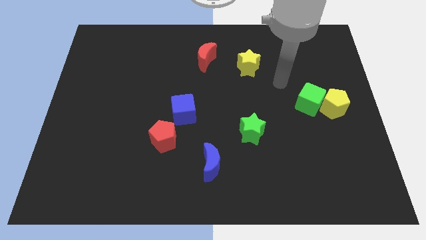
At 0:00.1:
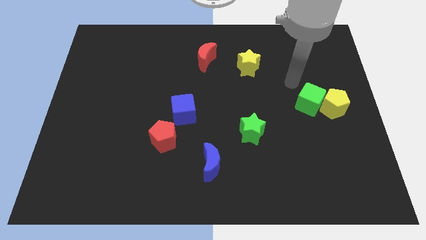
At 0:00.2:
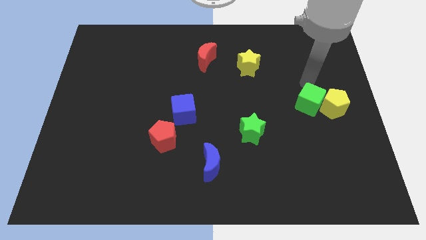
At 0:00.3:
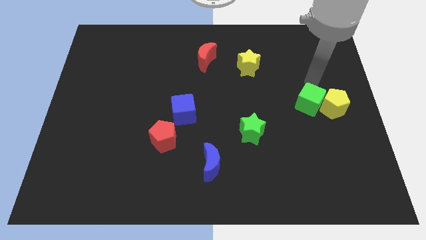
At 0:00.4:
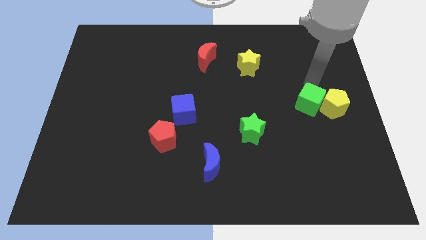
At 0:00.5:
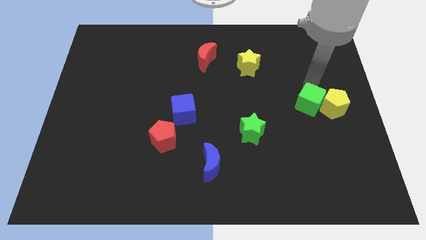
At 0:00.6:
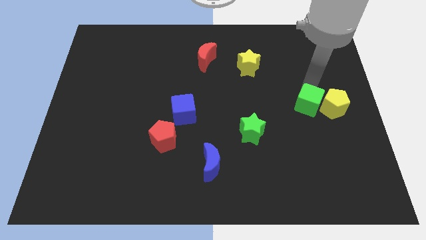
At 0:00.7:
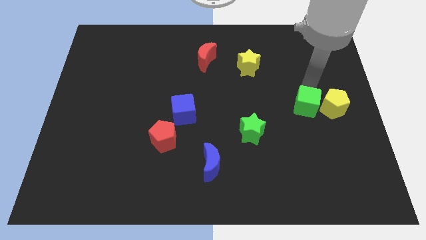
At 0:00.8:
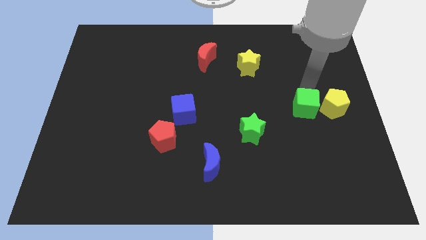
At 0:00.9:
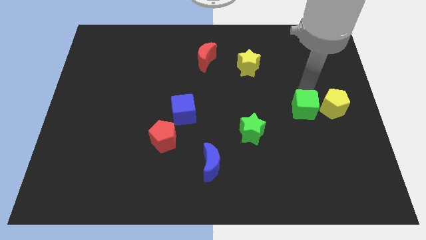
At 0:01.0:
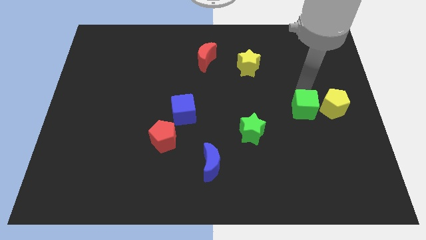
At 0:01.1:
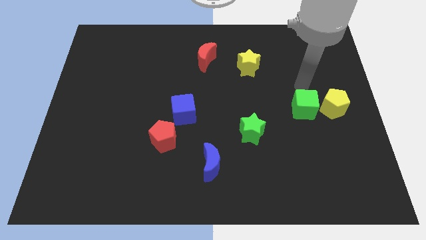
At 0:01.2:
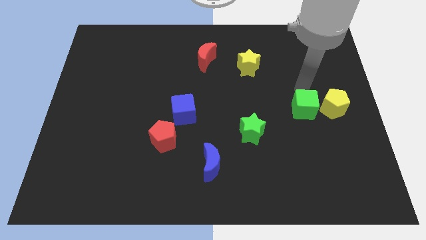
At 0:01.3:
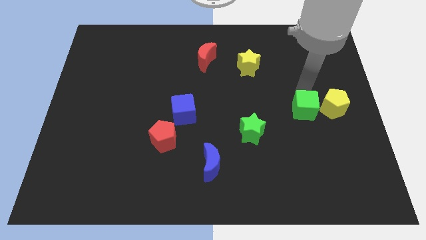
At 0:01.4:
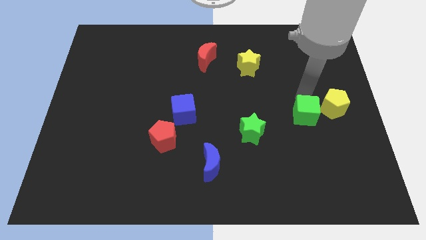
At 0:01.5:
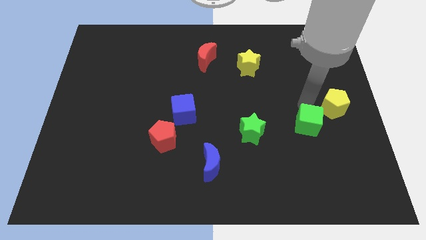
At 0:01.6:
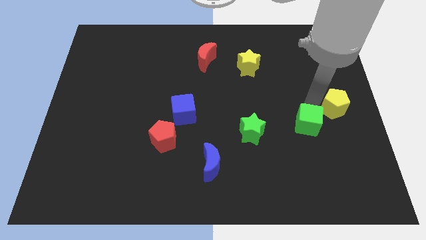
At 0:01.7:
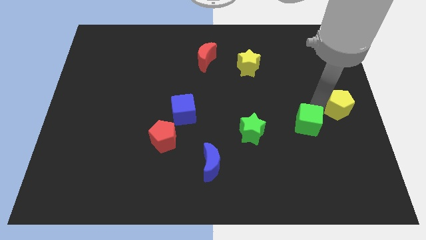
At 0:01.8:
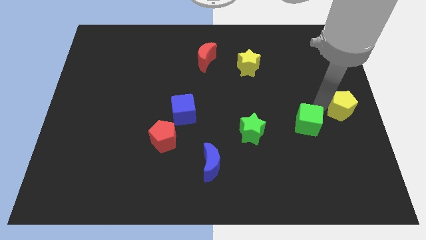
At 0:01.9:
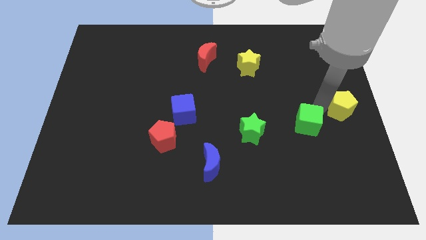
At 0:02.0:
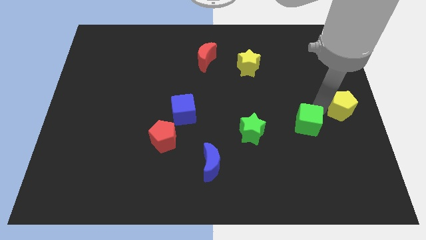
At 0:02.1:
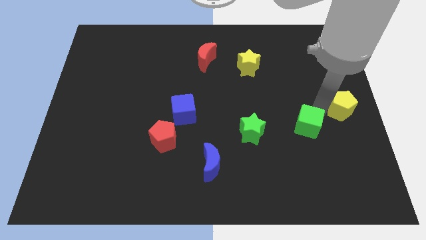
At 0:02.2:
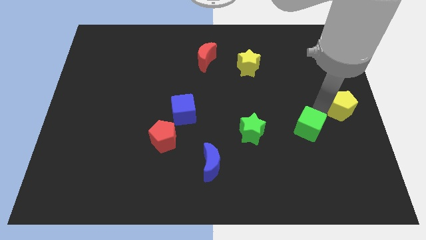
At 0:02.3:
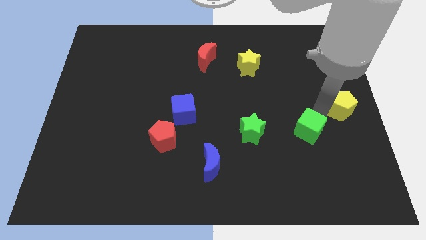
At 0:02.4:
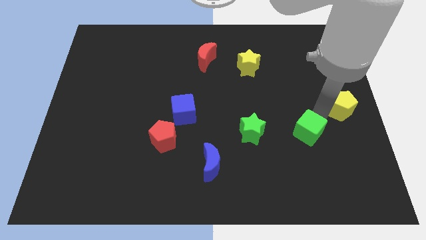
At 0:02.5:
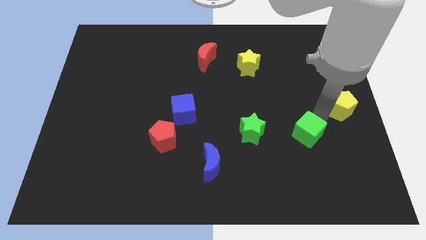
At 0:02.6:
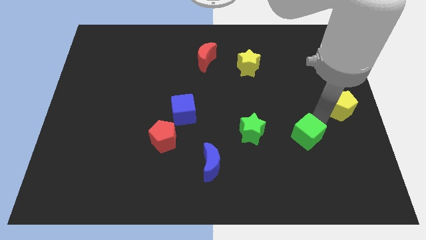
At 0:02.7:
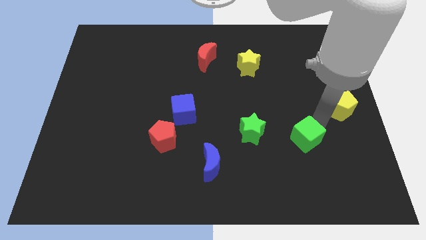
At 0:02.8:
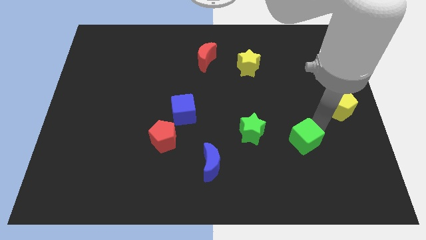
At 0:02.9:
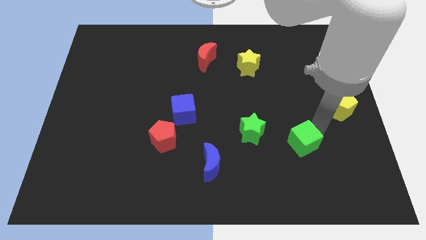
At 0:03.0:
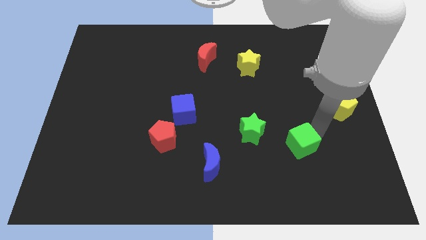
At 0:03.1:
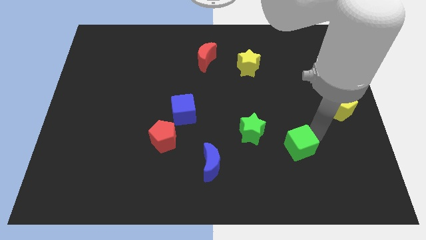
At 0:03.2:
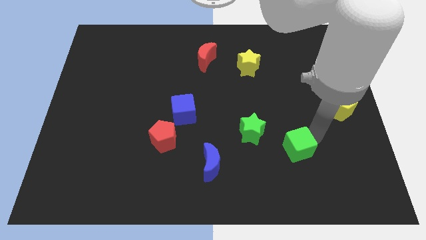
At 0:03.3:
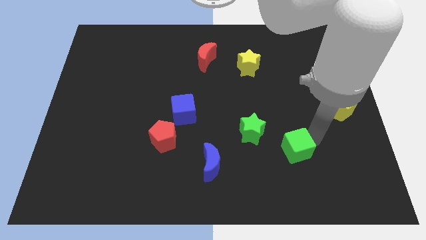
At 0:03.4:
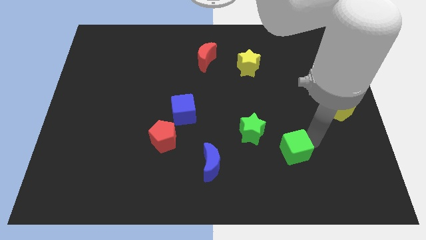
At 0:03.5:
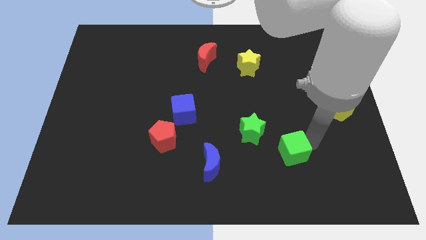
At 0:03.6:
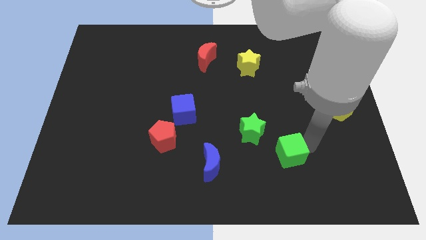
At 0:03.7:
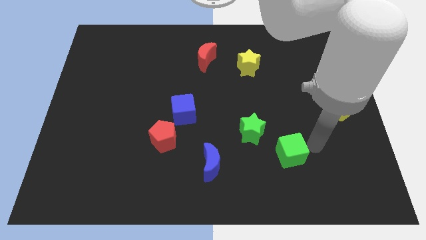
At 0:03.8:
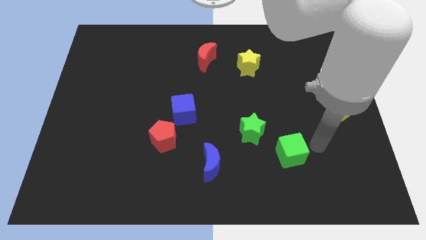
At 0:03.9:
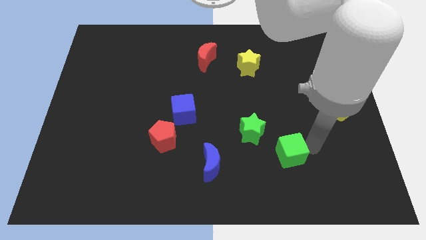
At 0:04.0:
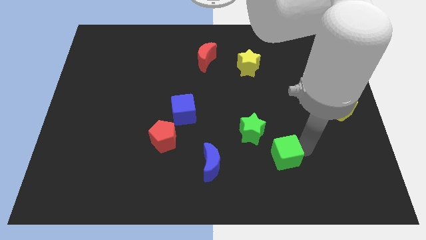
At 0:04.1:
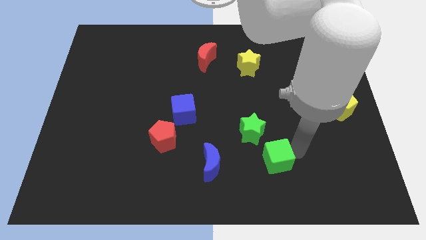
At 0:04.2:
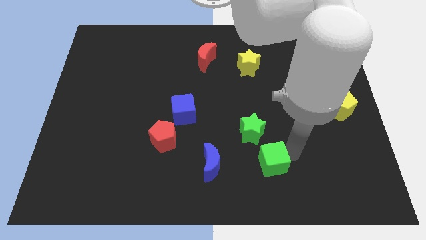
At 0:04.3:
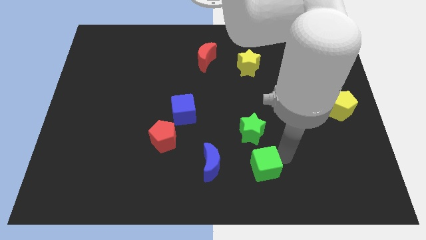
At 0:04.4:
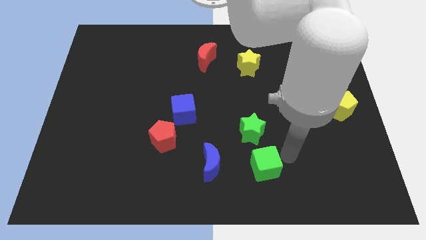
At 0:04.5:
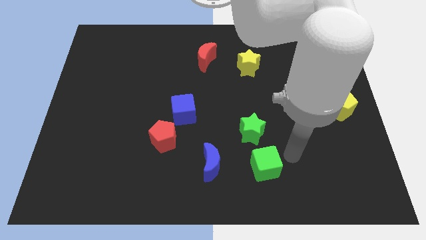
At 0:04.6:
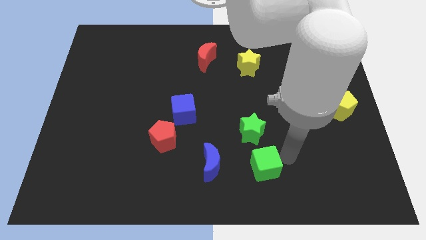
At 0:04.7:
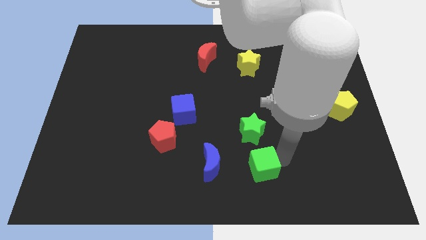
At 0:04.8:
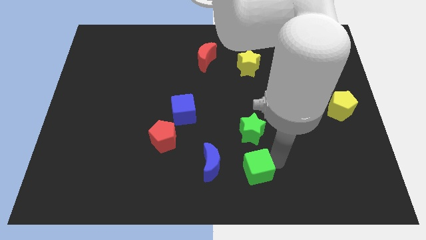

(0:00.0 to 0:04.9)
push the green cube to the bottom side
